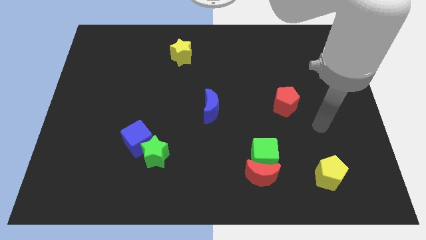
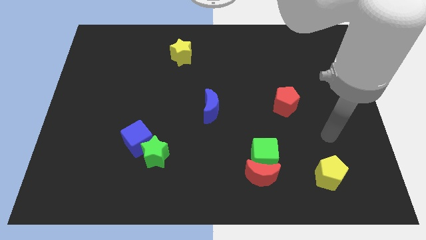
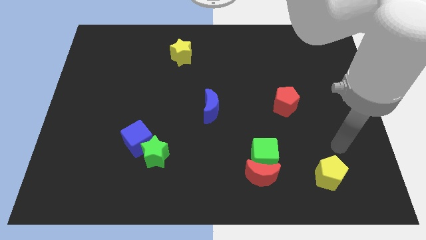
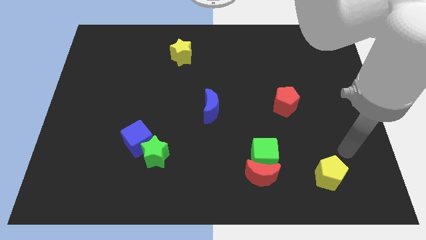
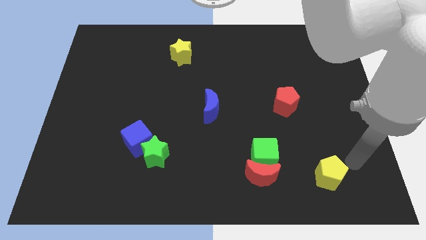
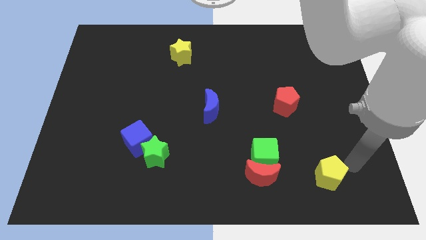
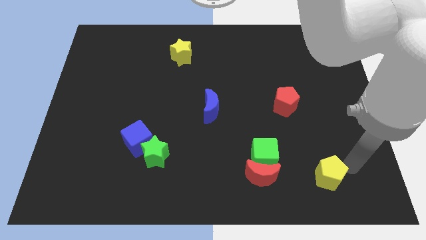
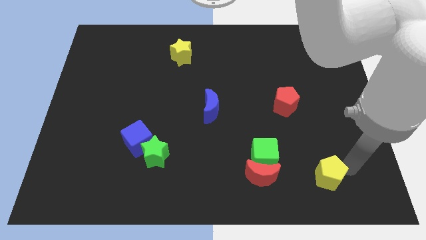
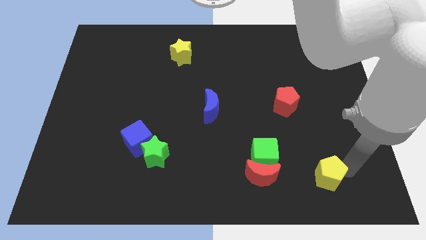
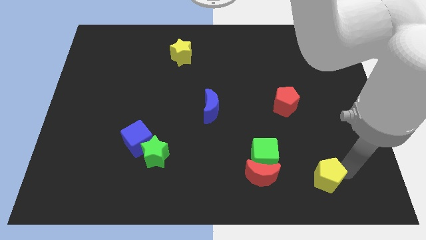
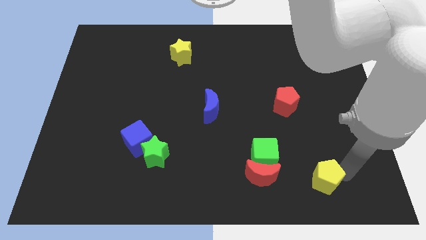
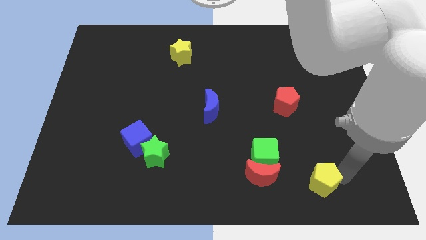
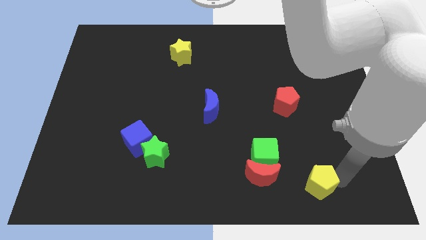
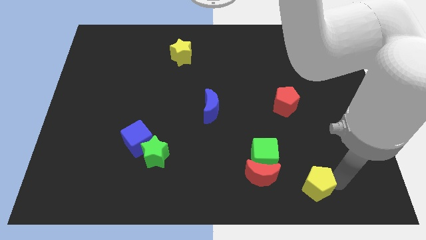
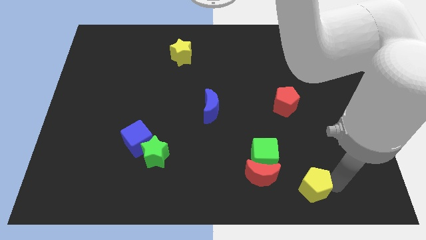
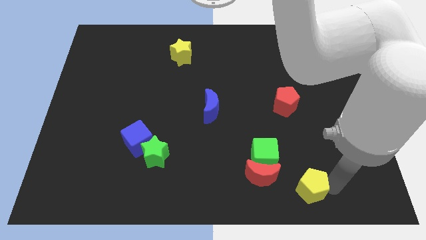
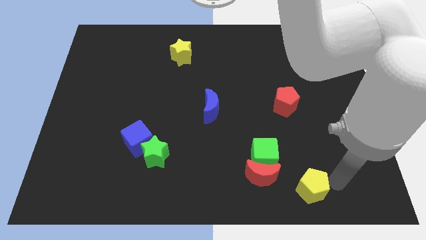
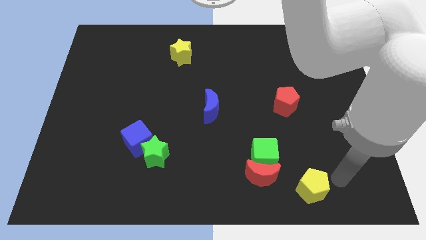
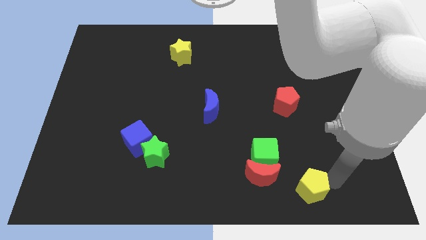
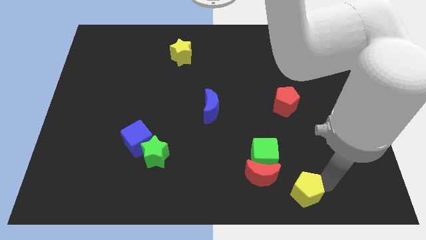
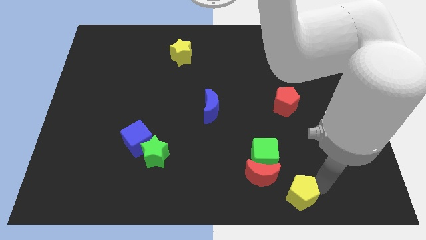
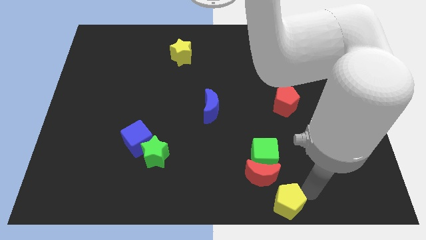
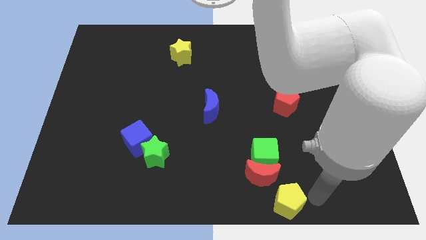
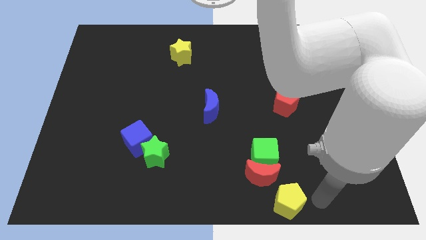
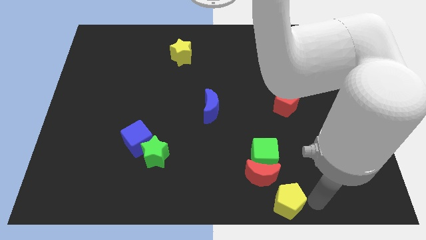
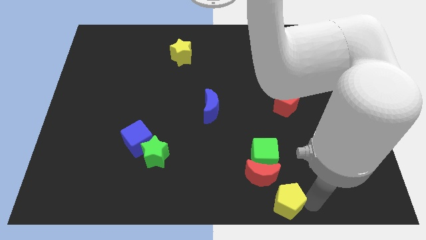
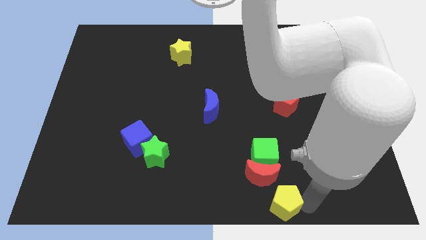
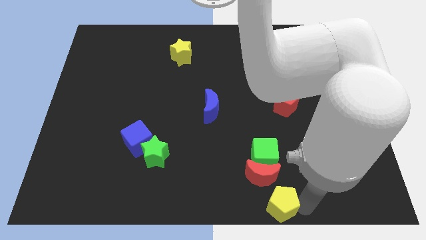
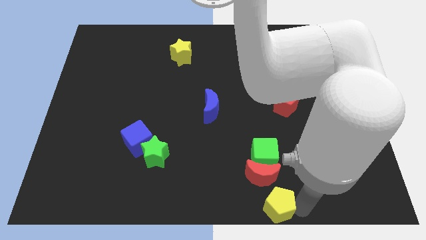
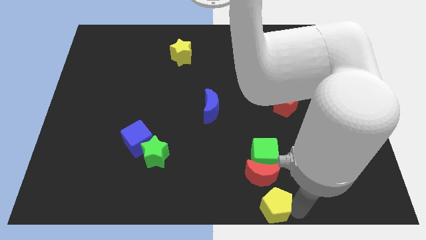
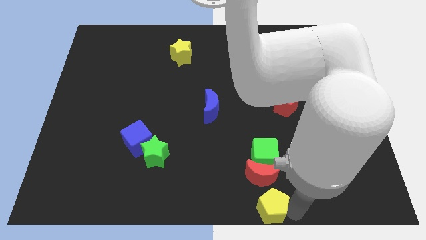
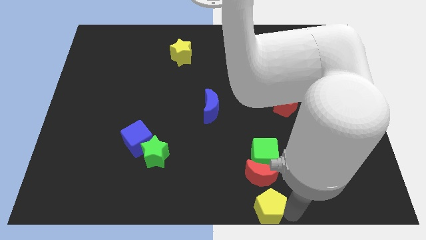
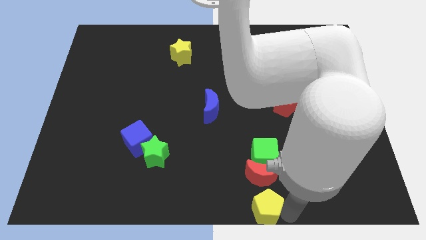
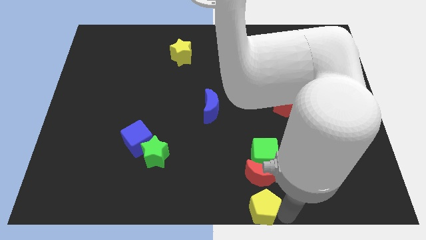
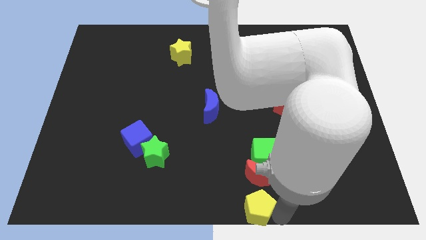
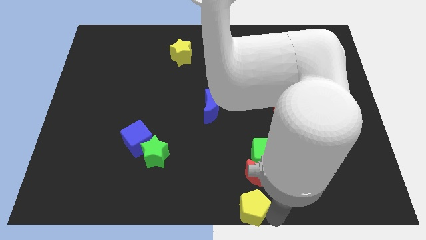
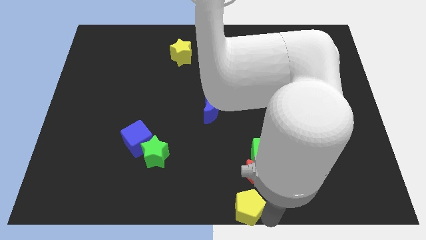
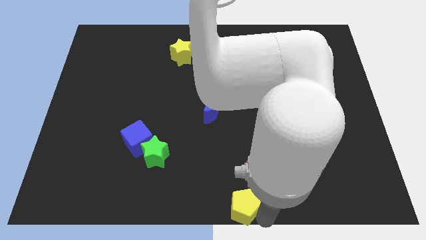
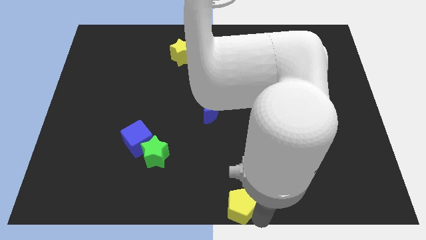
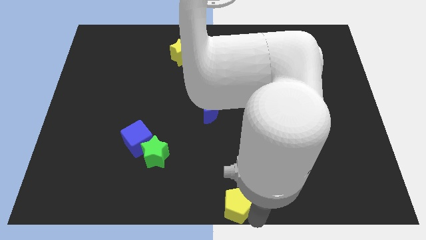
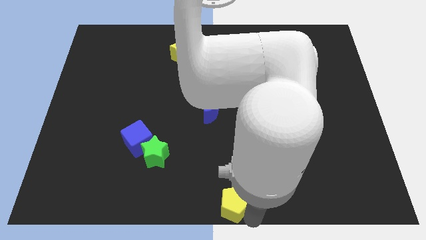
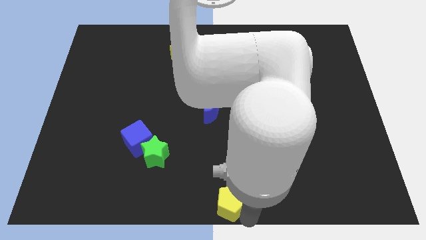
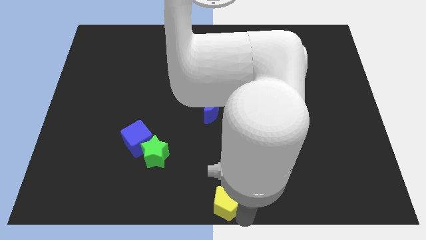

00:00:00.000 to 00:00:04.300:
push the yellow pentagon left

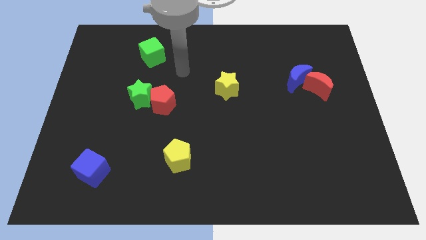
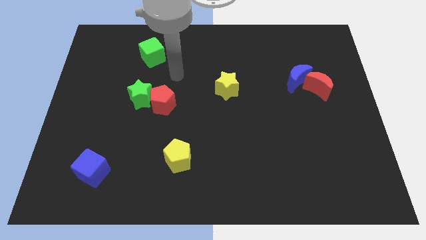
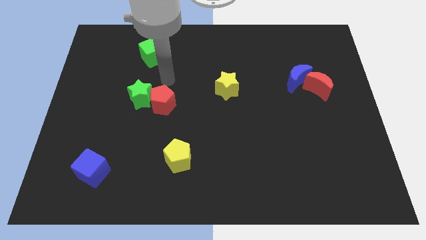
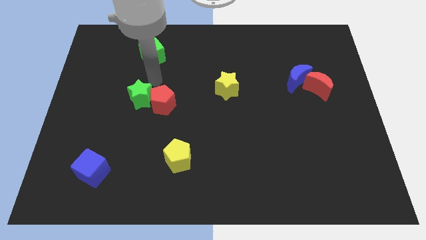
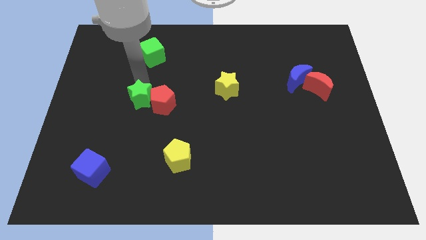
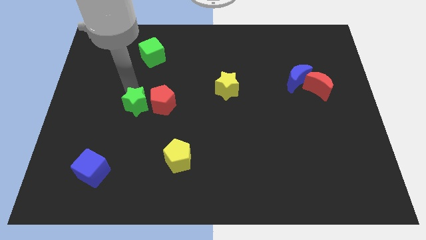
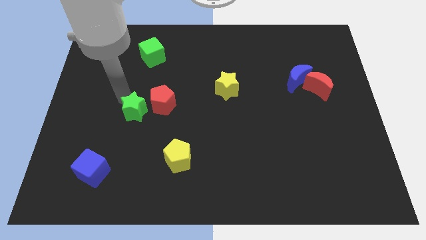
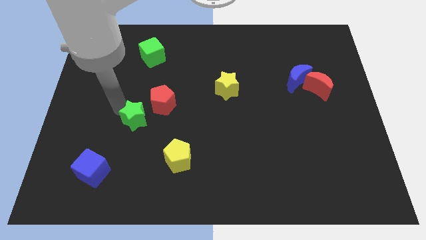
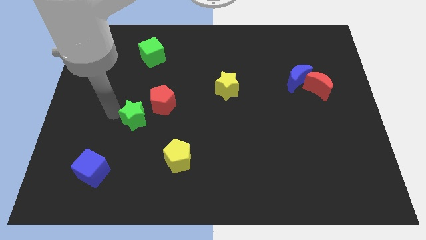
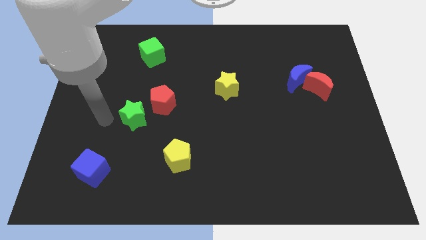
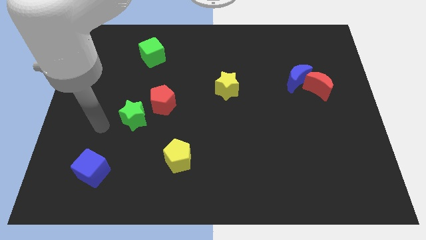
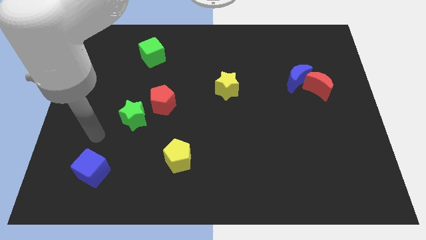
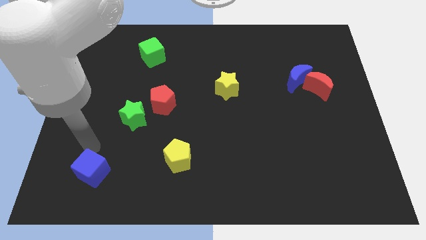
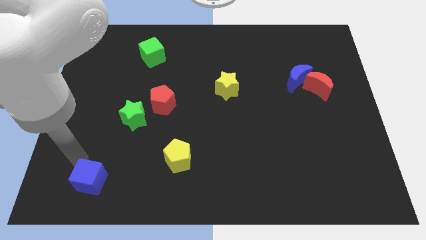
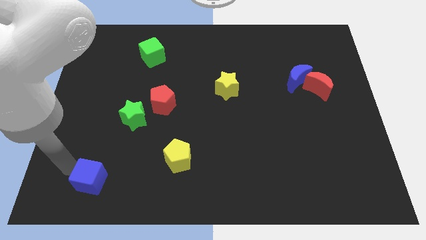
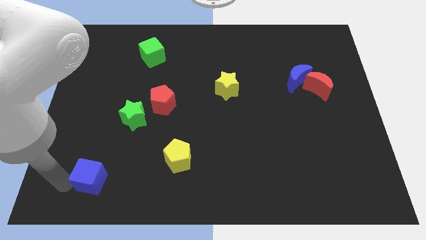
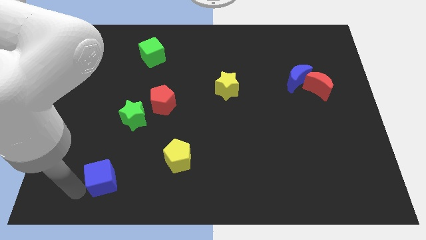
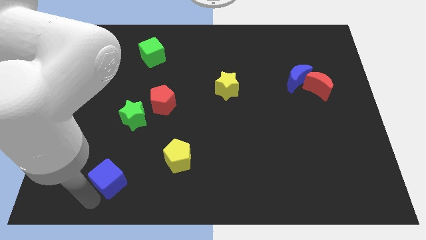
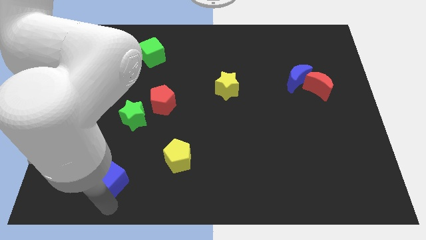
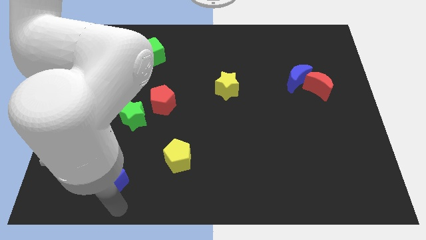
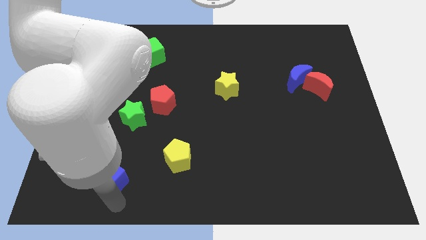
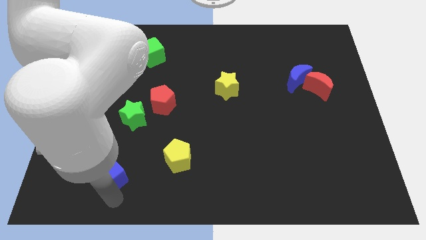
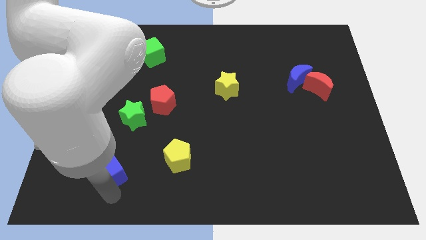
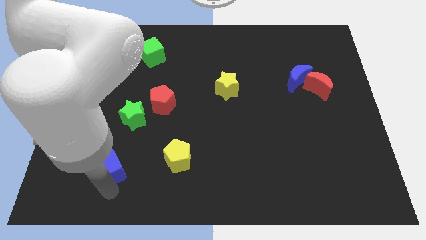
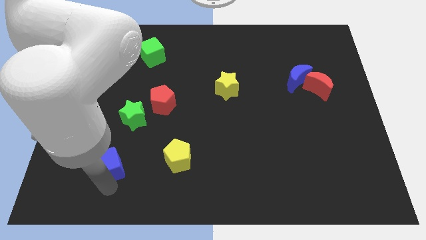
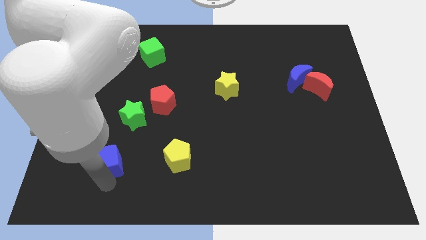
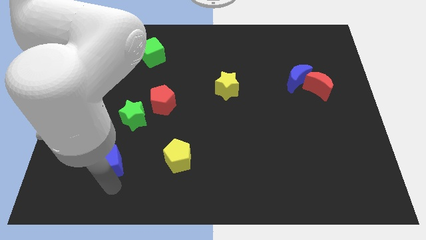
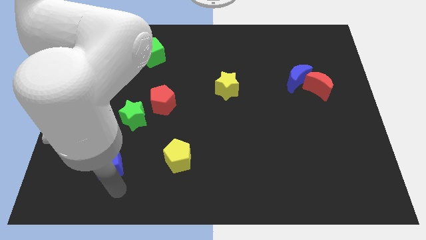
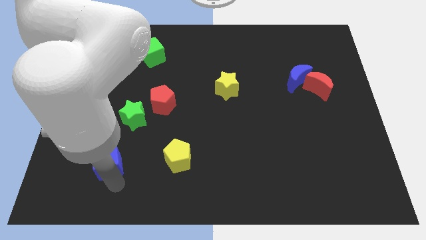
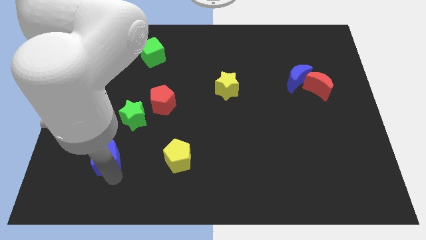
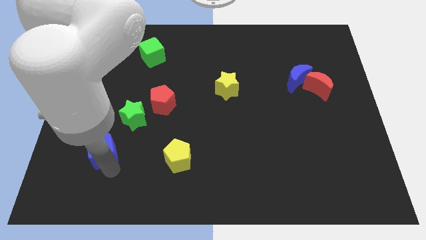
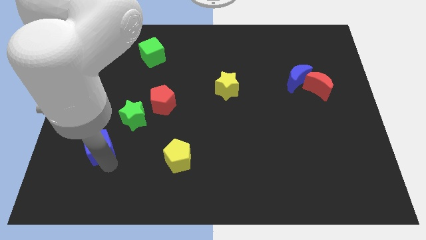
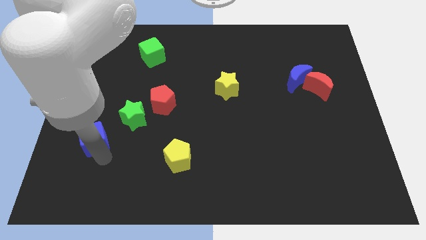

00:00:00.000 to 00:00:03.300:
slide the blue cube a bit up

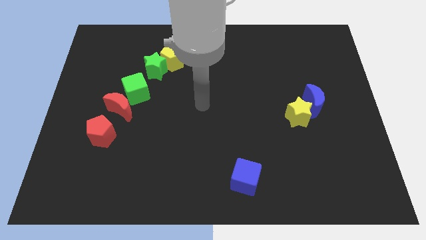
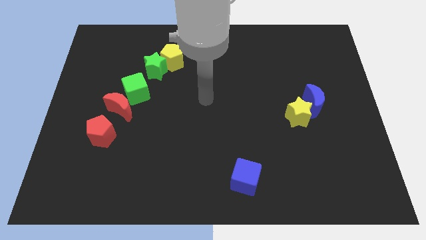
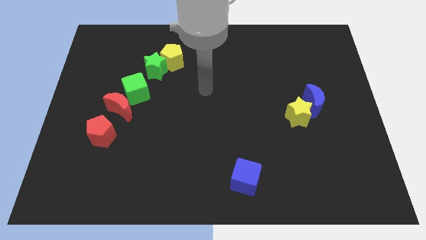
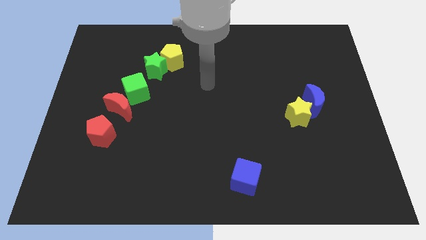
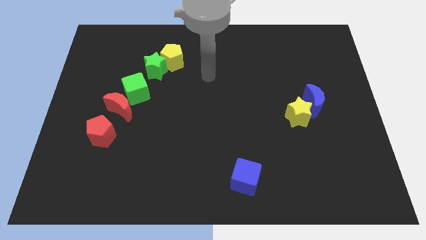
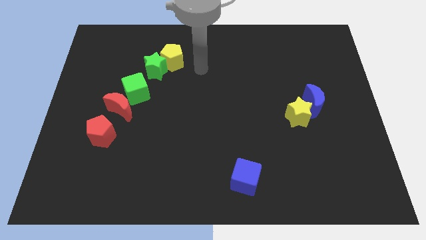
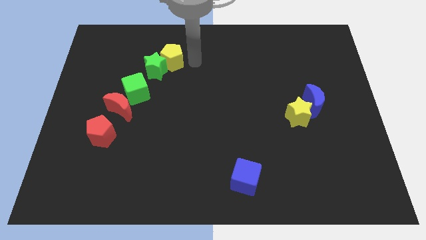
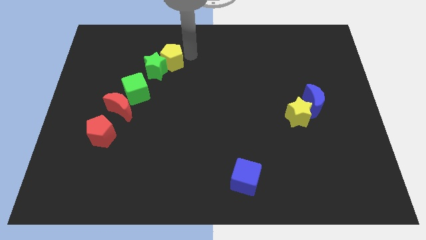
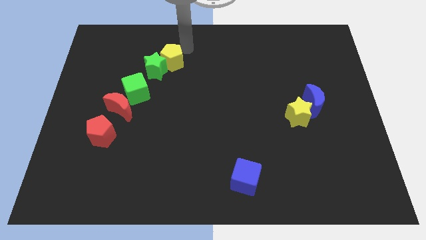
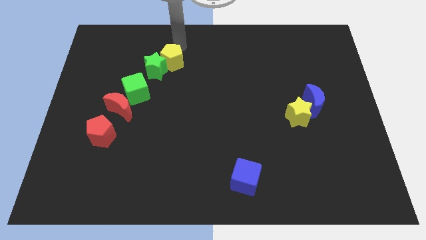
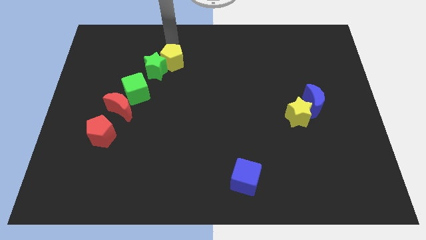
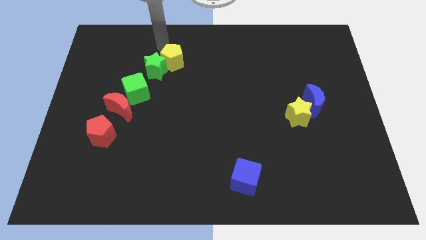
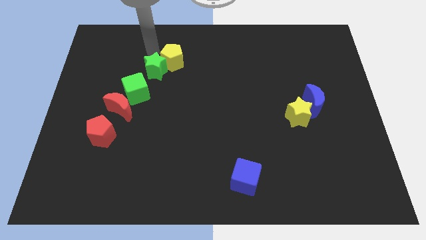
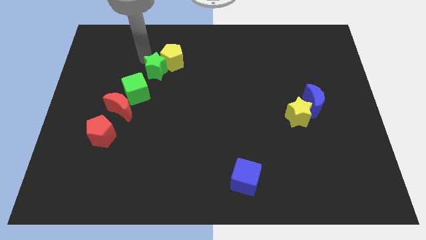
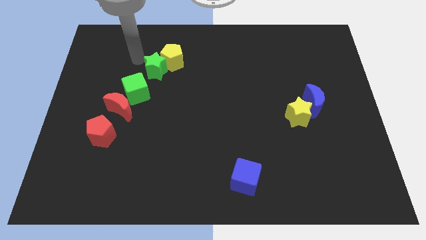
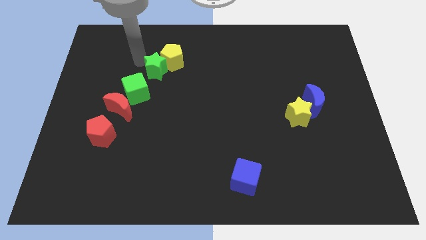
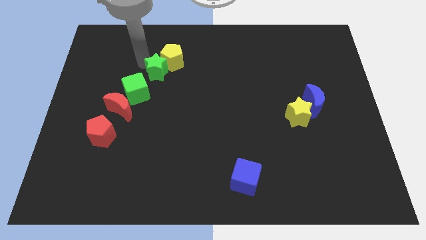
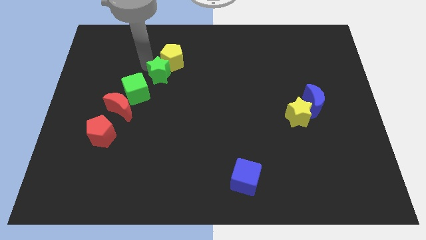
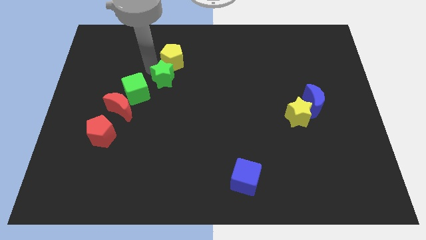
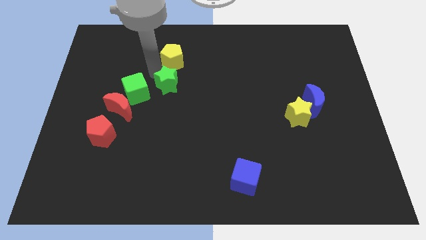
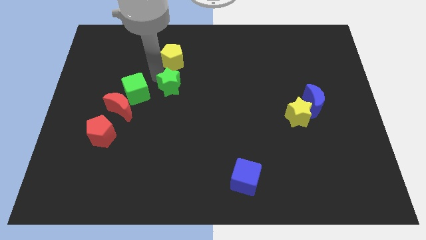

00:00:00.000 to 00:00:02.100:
slightly push the green star down and then to the right
